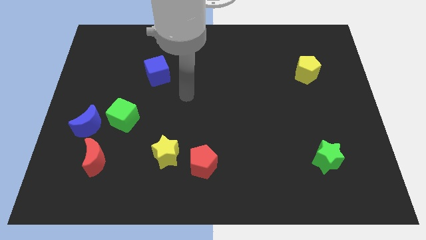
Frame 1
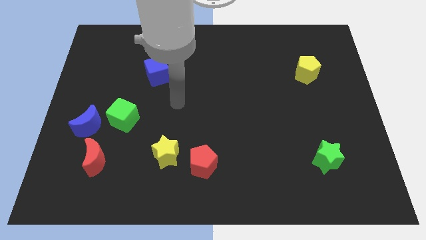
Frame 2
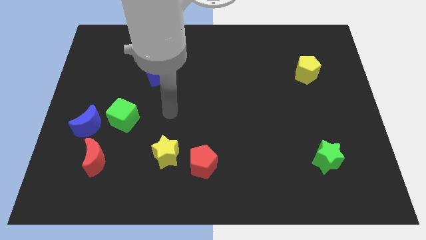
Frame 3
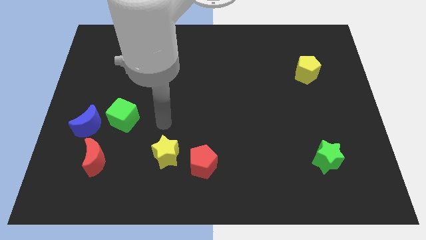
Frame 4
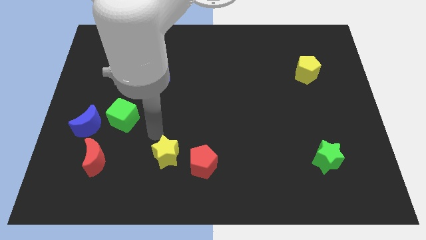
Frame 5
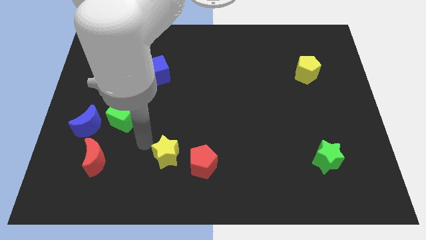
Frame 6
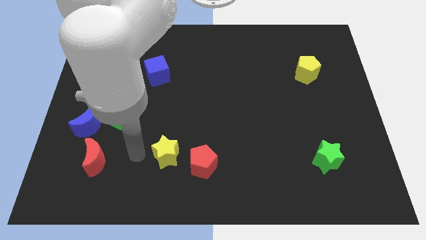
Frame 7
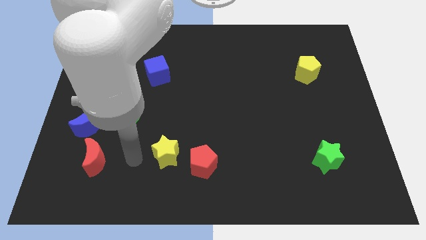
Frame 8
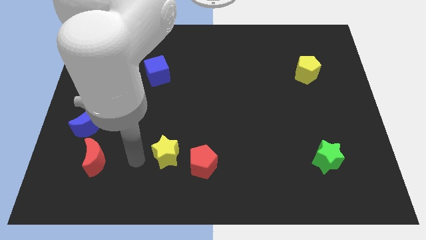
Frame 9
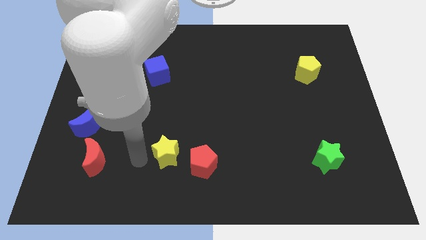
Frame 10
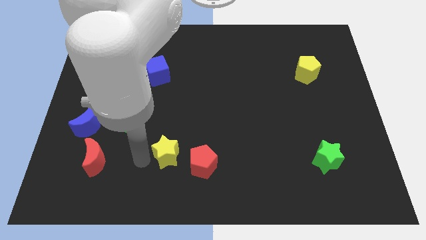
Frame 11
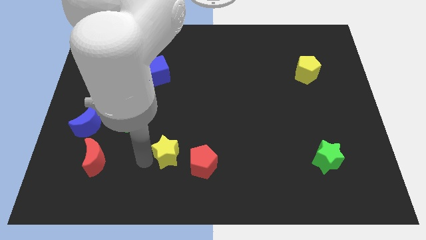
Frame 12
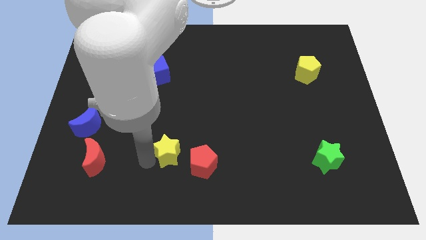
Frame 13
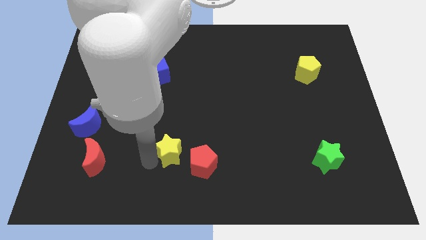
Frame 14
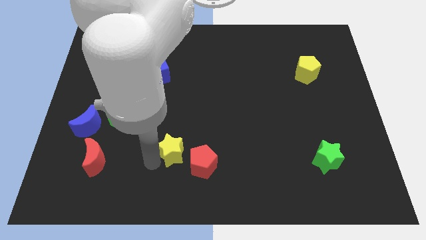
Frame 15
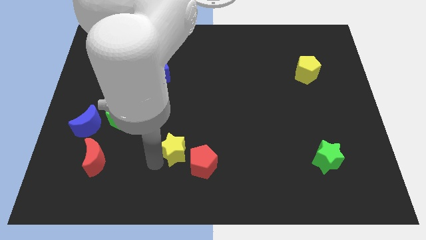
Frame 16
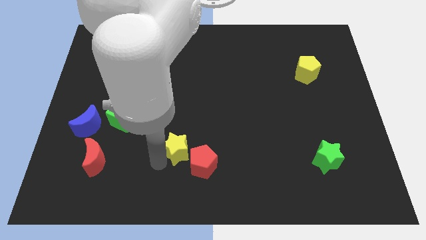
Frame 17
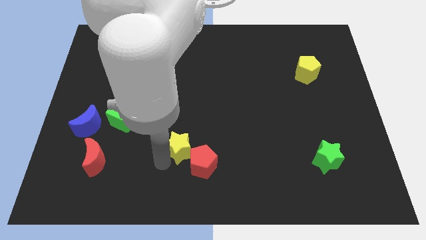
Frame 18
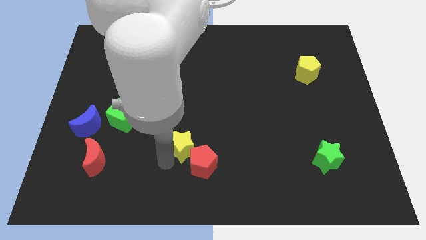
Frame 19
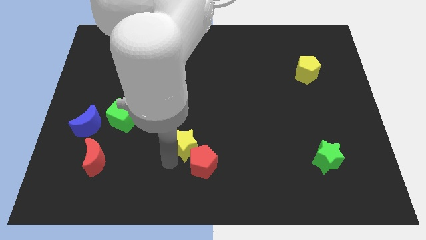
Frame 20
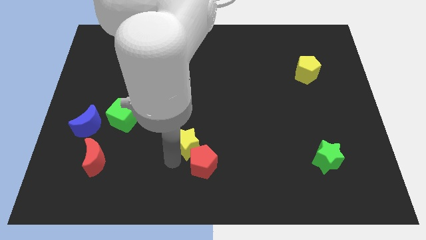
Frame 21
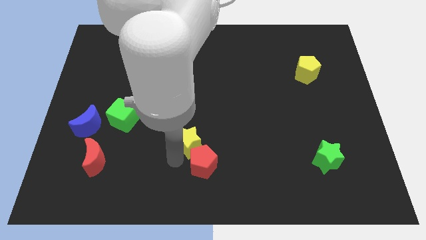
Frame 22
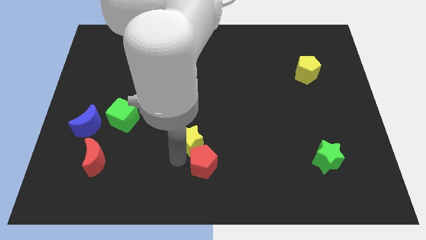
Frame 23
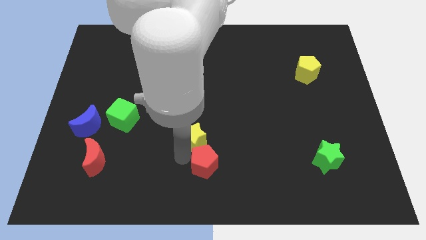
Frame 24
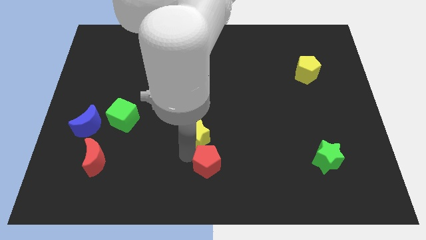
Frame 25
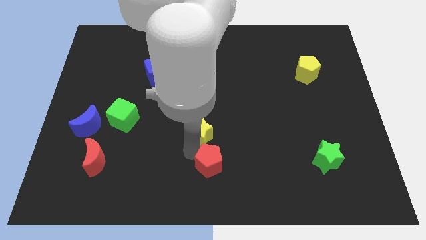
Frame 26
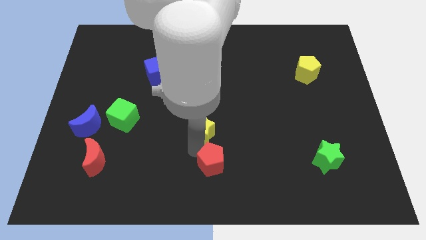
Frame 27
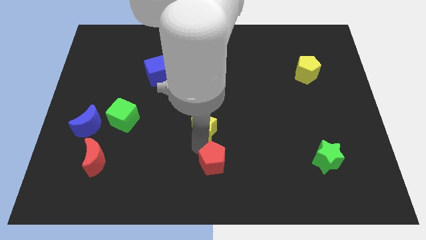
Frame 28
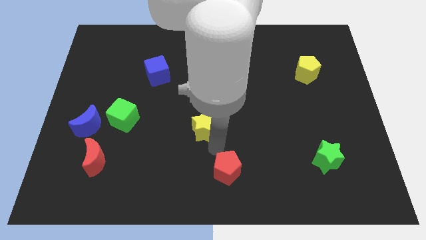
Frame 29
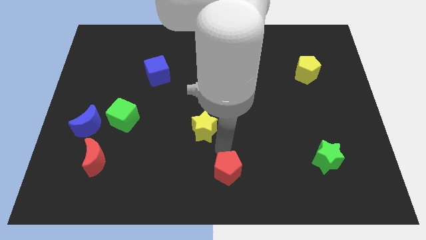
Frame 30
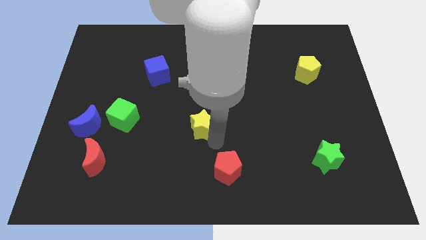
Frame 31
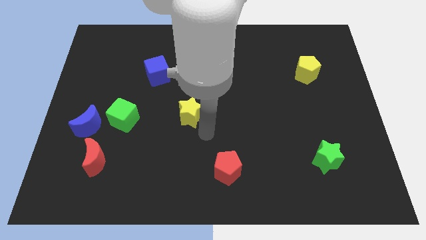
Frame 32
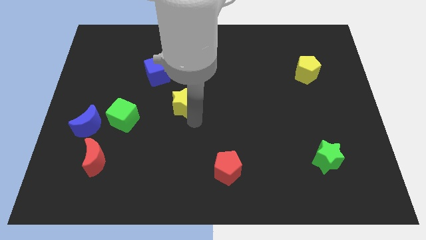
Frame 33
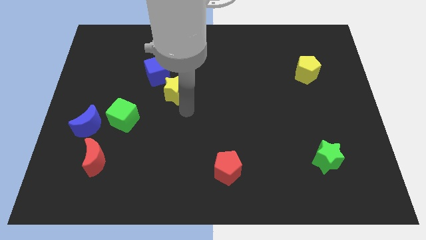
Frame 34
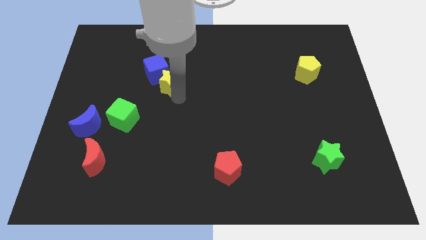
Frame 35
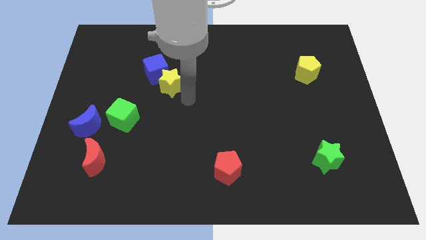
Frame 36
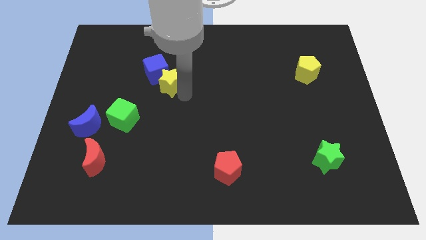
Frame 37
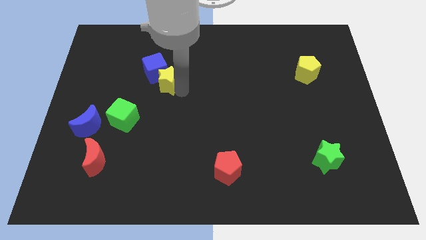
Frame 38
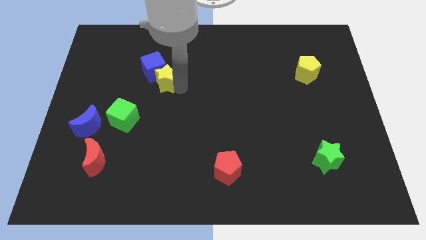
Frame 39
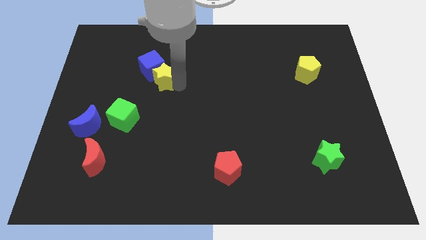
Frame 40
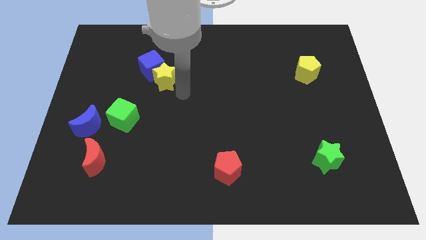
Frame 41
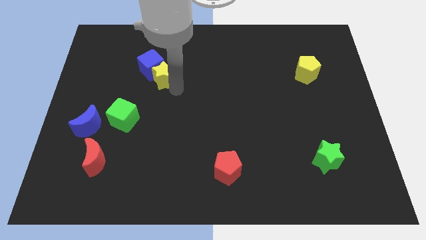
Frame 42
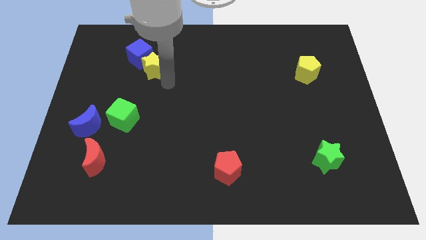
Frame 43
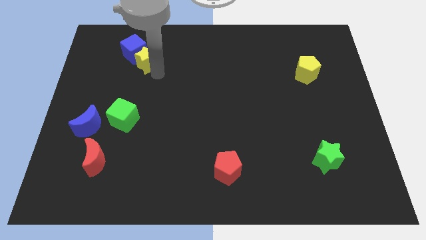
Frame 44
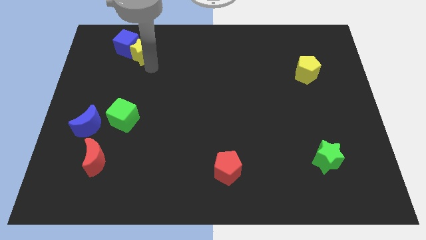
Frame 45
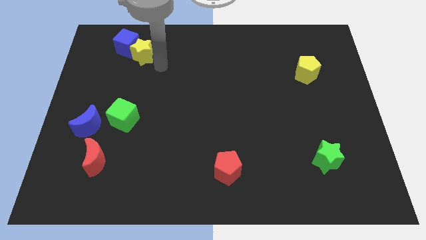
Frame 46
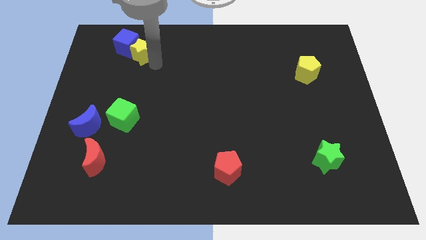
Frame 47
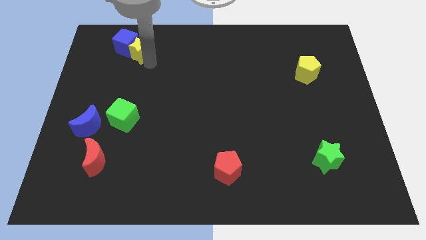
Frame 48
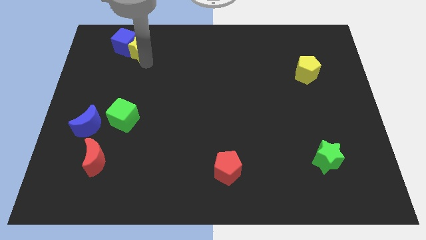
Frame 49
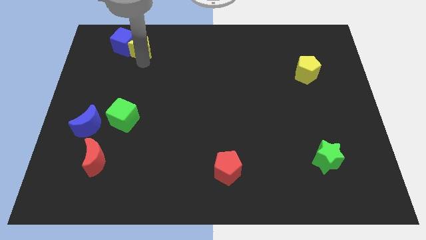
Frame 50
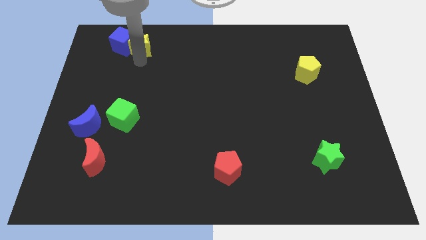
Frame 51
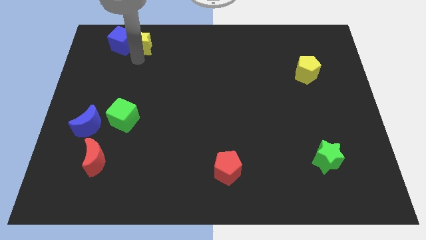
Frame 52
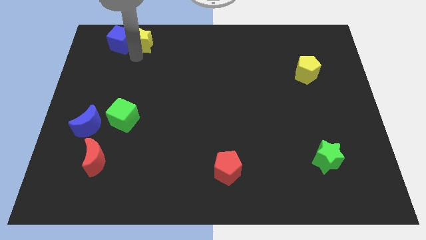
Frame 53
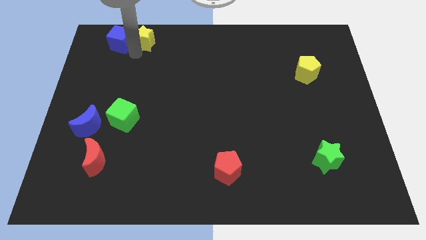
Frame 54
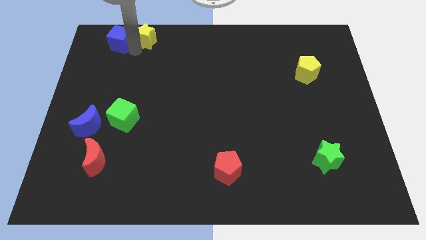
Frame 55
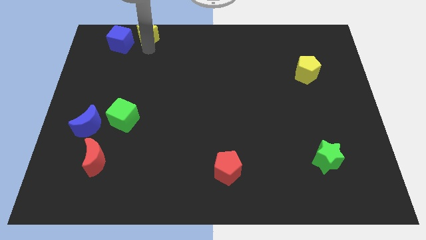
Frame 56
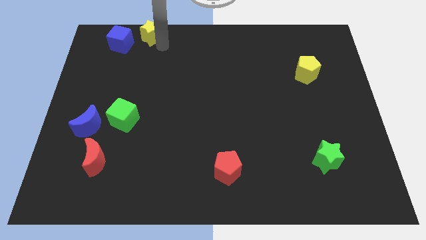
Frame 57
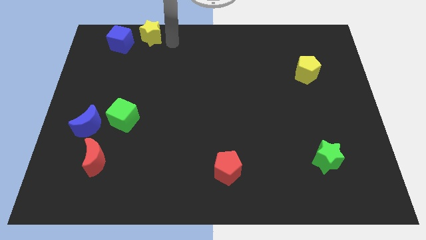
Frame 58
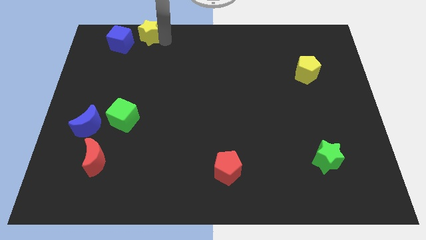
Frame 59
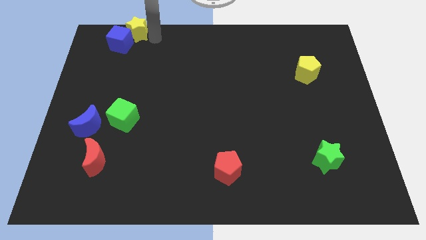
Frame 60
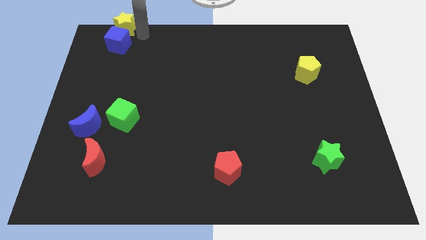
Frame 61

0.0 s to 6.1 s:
put the yellow star to the top left
